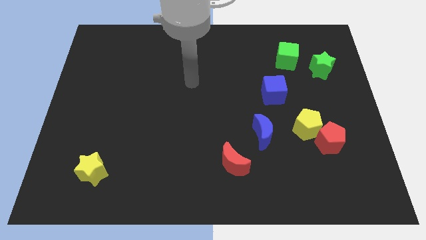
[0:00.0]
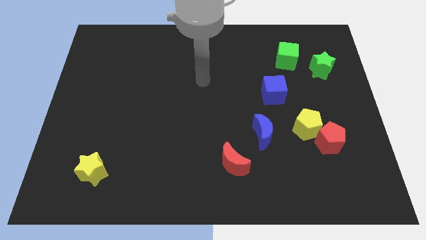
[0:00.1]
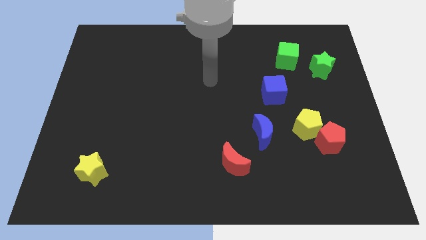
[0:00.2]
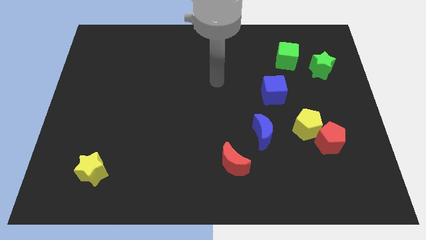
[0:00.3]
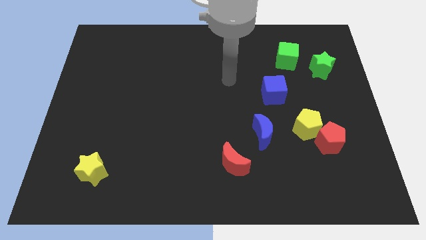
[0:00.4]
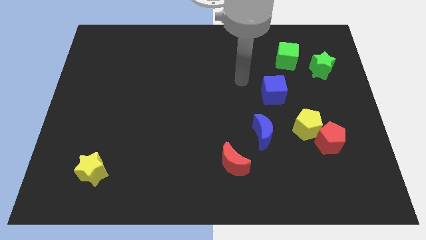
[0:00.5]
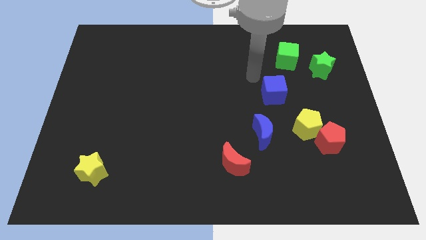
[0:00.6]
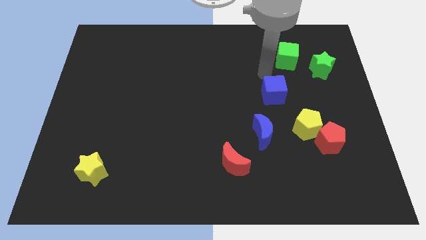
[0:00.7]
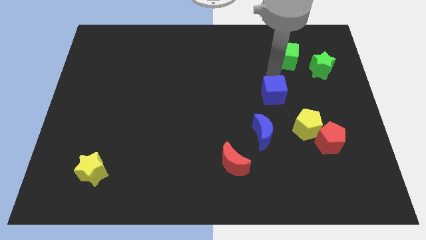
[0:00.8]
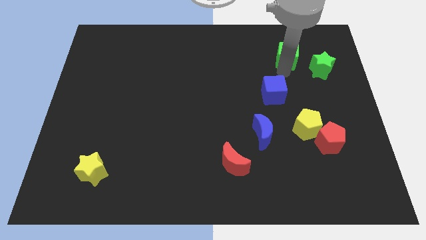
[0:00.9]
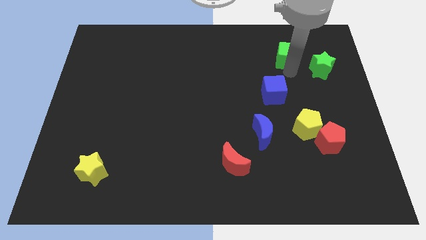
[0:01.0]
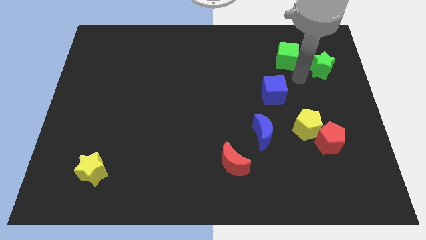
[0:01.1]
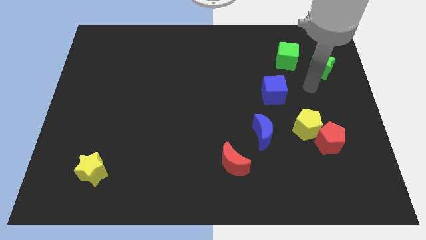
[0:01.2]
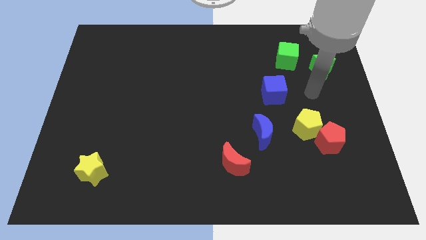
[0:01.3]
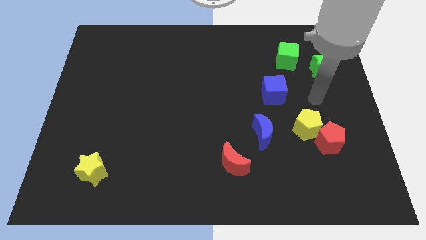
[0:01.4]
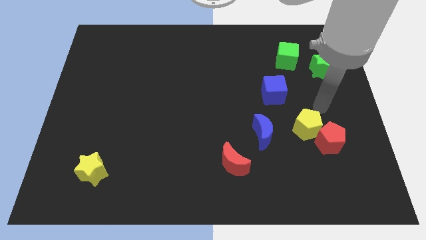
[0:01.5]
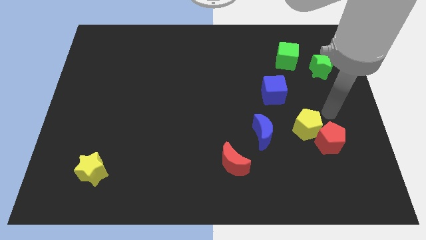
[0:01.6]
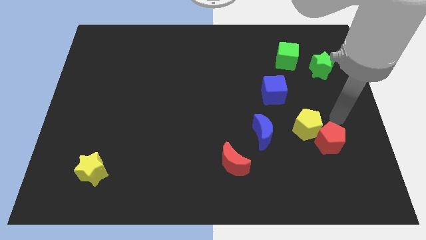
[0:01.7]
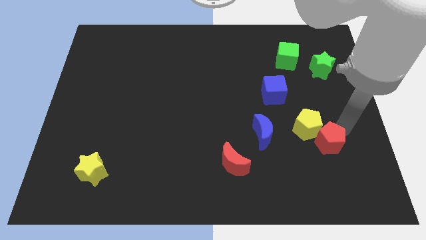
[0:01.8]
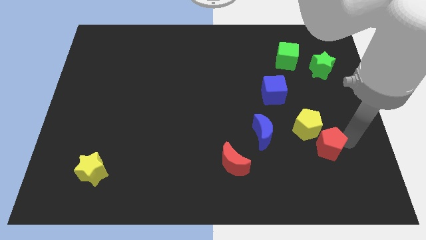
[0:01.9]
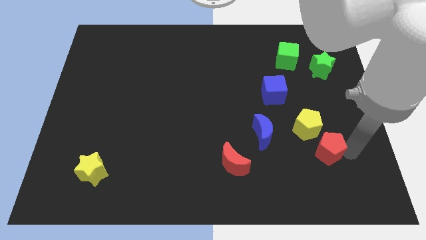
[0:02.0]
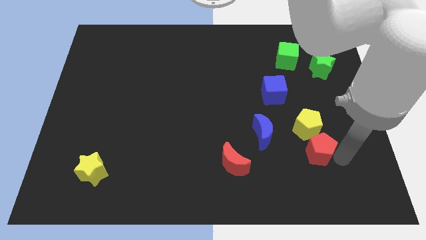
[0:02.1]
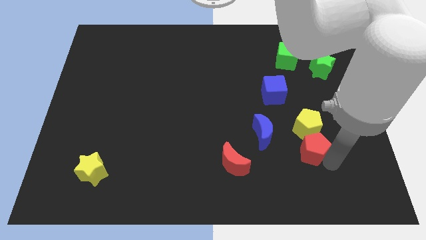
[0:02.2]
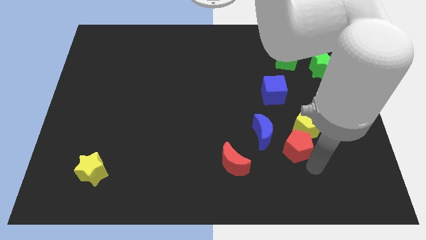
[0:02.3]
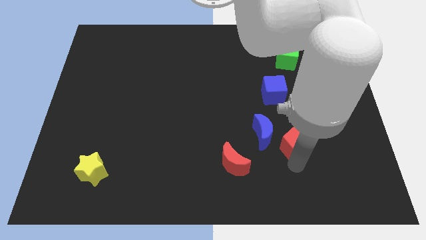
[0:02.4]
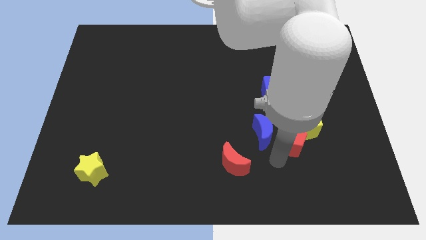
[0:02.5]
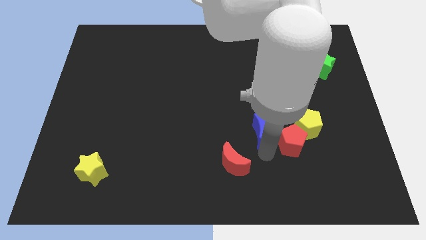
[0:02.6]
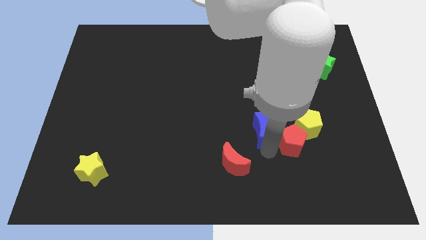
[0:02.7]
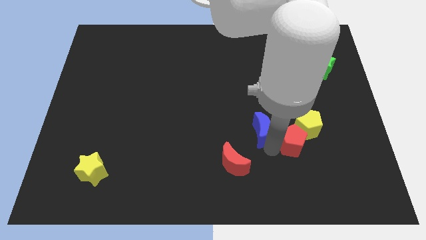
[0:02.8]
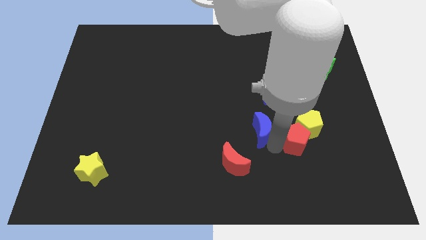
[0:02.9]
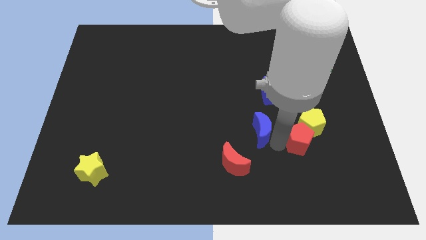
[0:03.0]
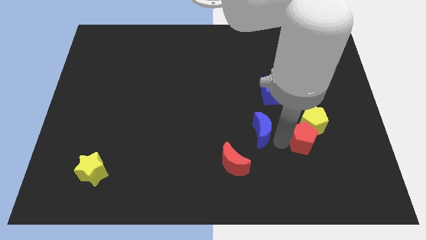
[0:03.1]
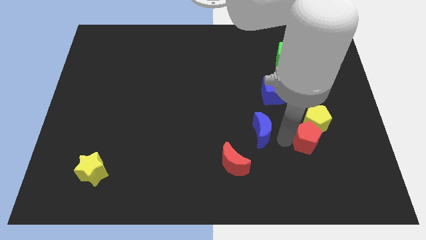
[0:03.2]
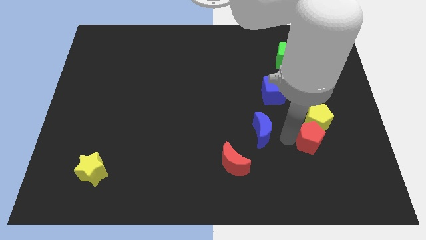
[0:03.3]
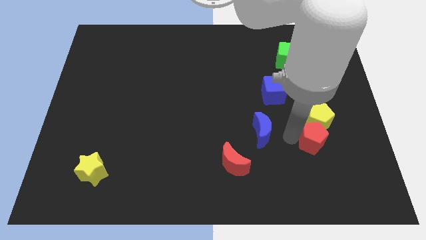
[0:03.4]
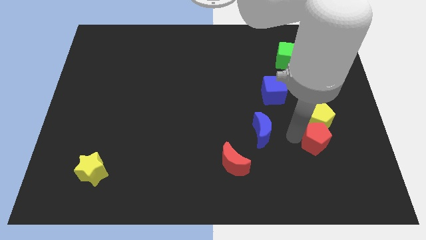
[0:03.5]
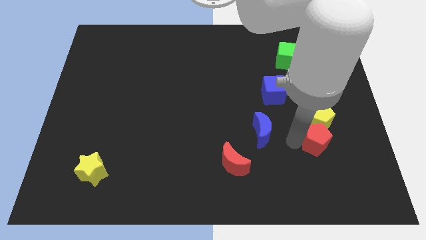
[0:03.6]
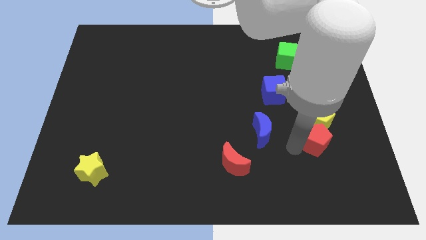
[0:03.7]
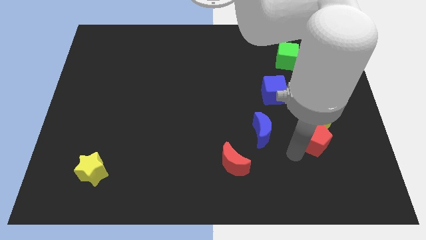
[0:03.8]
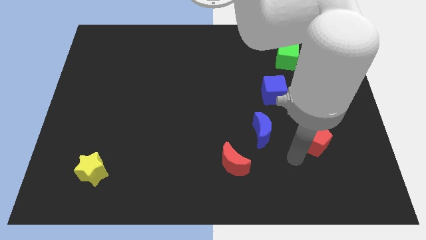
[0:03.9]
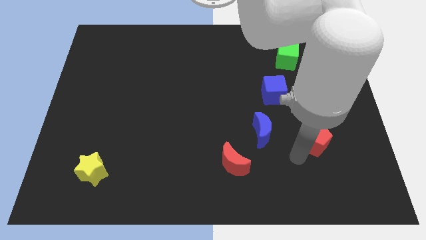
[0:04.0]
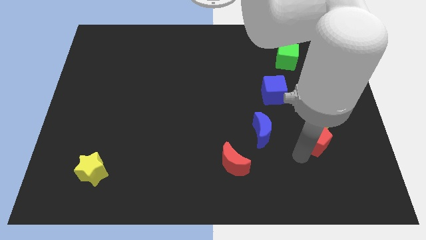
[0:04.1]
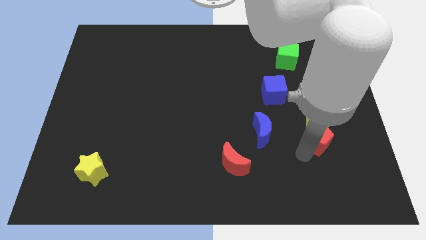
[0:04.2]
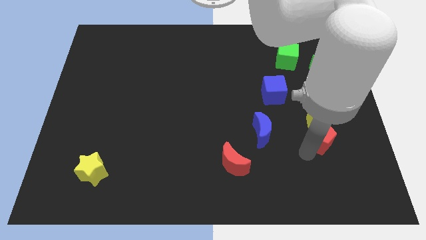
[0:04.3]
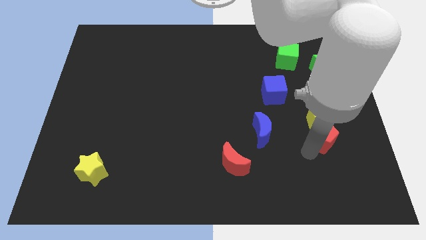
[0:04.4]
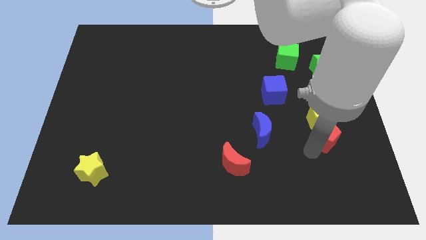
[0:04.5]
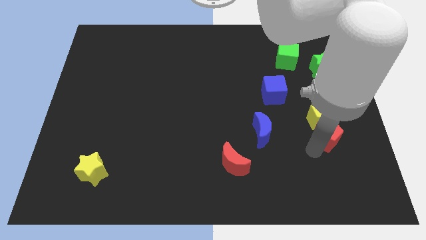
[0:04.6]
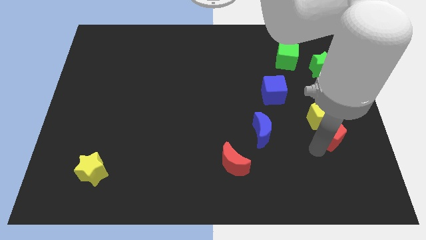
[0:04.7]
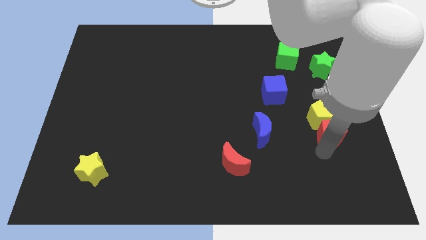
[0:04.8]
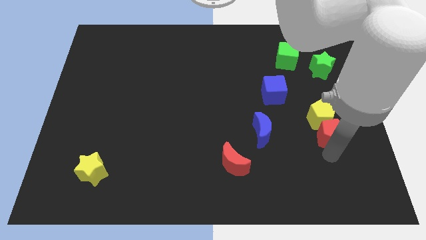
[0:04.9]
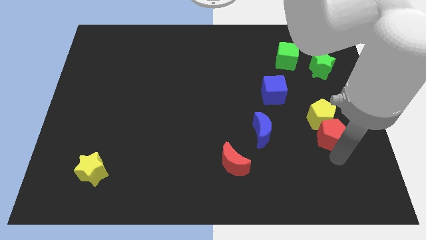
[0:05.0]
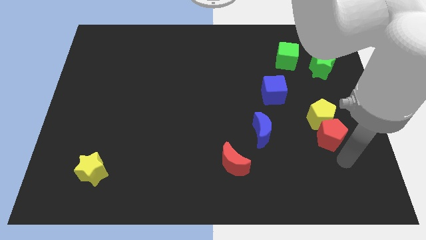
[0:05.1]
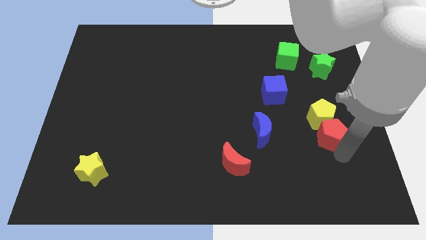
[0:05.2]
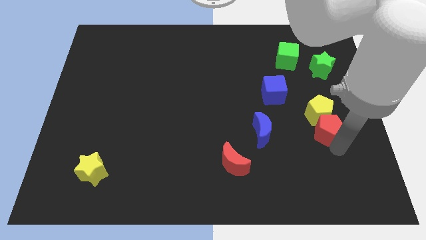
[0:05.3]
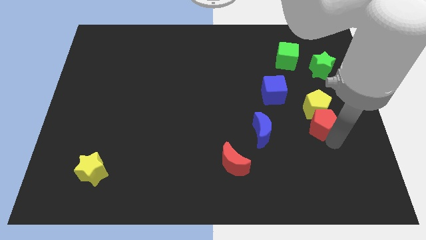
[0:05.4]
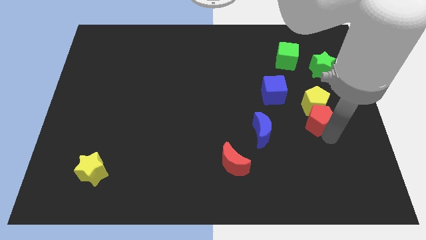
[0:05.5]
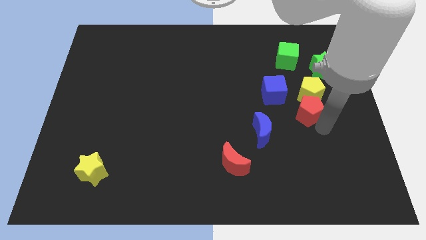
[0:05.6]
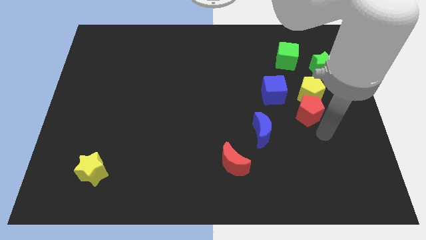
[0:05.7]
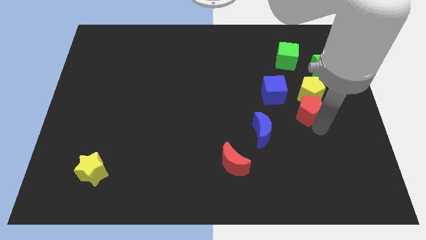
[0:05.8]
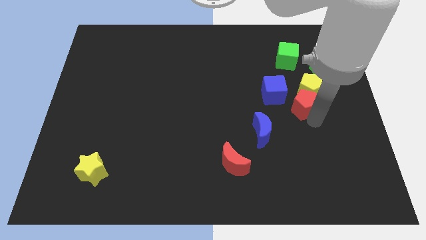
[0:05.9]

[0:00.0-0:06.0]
put the red pentagon to the bottom of the green cube

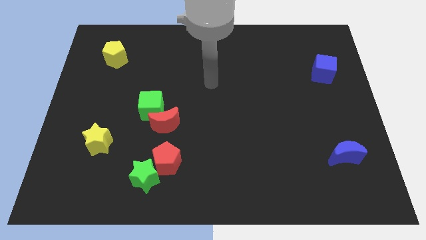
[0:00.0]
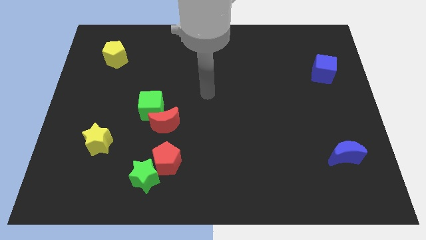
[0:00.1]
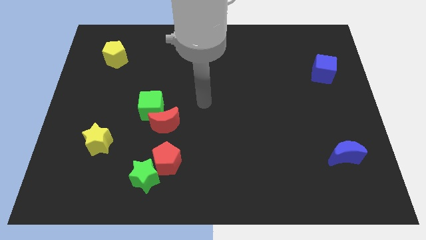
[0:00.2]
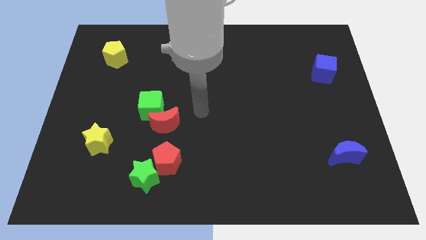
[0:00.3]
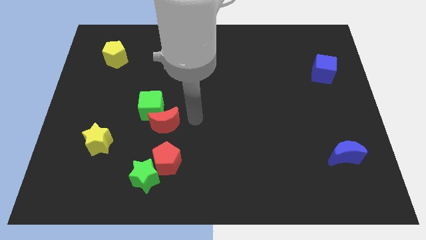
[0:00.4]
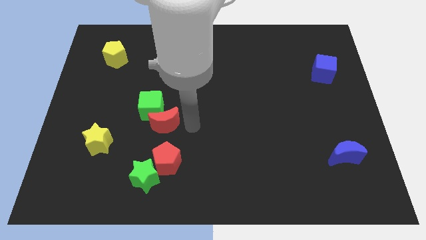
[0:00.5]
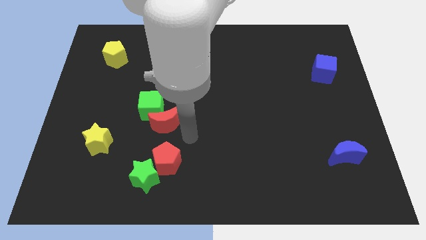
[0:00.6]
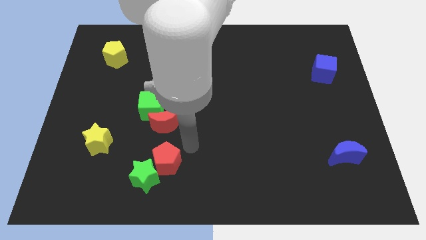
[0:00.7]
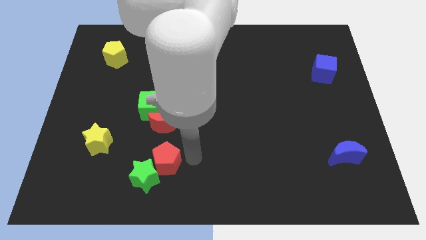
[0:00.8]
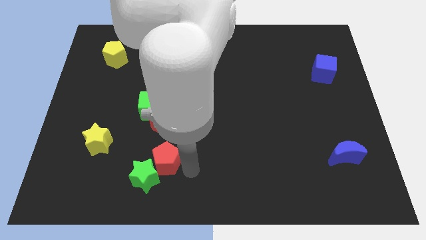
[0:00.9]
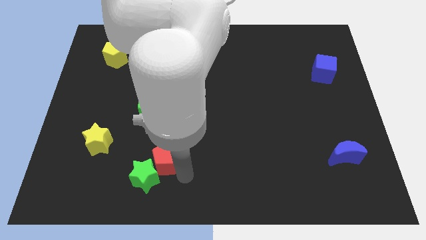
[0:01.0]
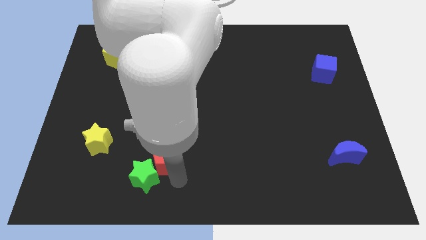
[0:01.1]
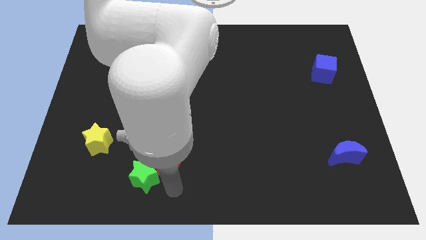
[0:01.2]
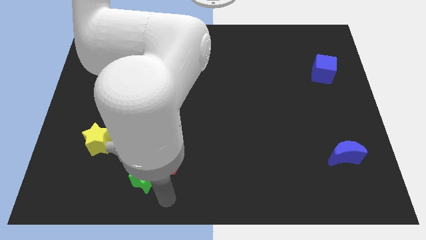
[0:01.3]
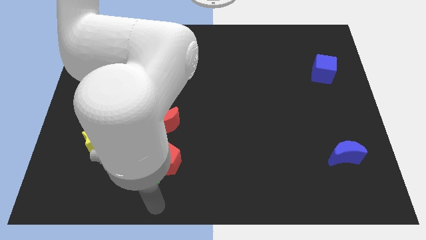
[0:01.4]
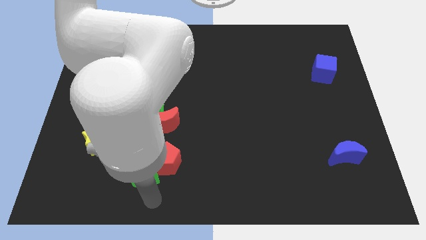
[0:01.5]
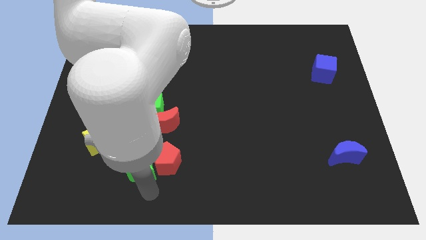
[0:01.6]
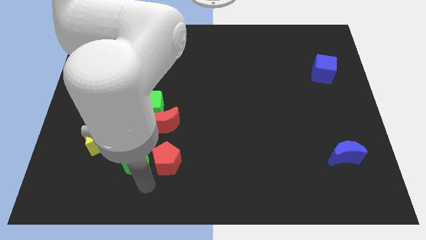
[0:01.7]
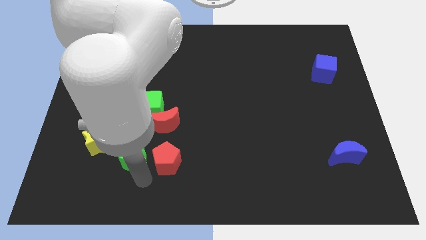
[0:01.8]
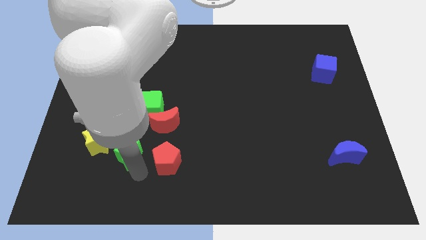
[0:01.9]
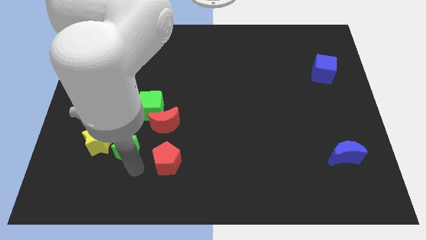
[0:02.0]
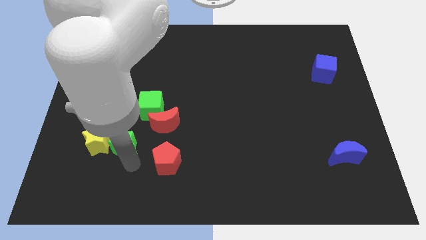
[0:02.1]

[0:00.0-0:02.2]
put the green star diagonally down and to the left of the green cube
